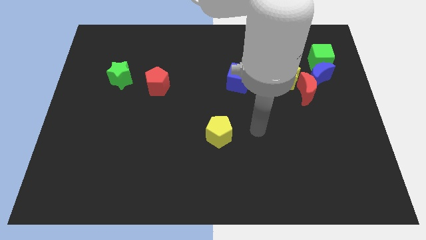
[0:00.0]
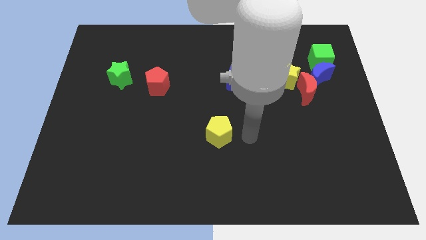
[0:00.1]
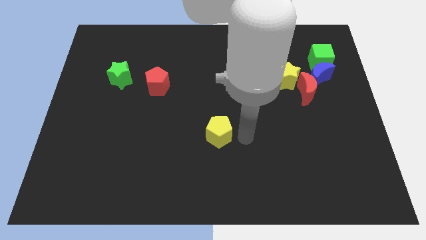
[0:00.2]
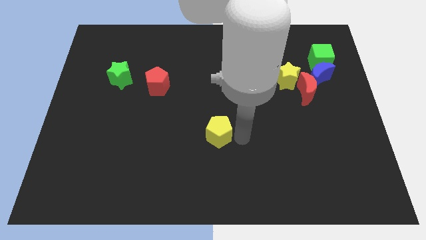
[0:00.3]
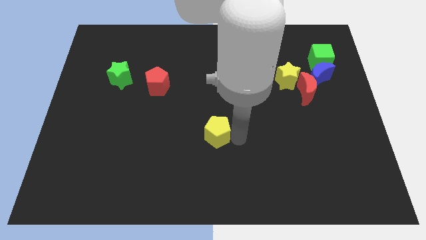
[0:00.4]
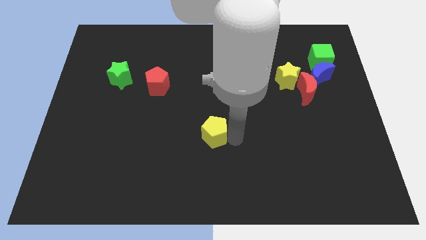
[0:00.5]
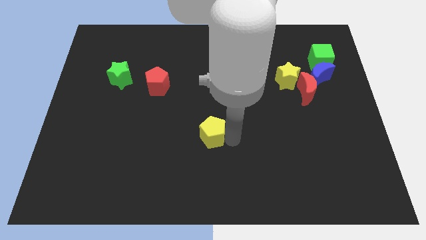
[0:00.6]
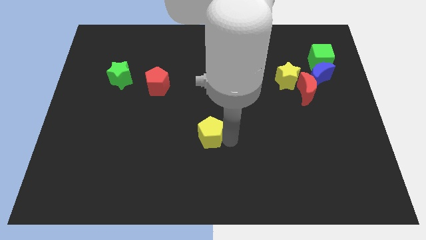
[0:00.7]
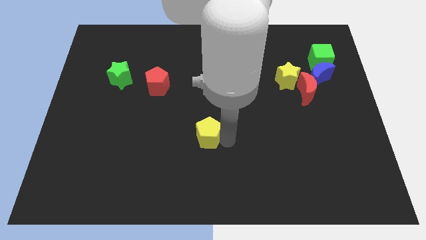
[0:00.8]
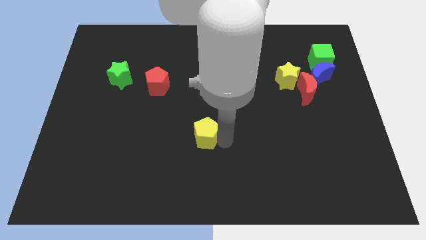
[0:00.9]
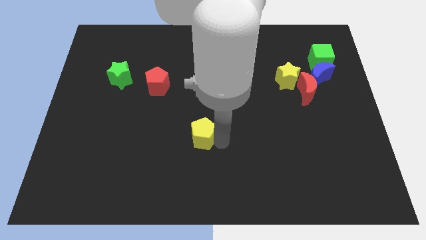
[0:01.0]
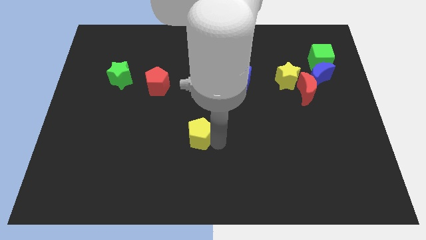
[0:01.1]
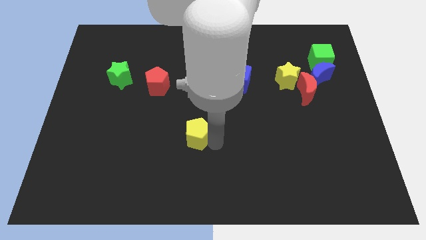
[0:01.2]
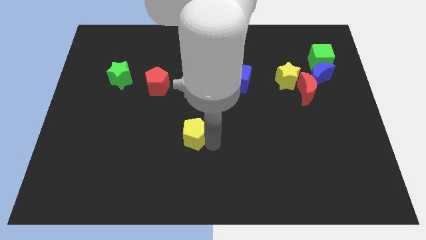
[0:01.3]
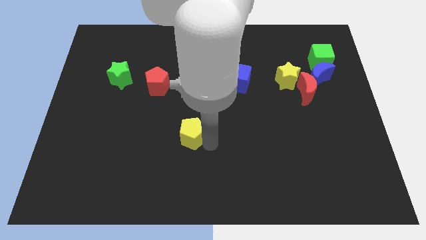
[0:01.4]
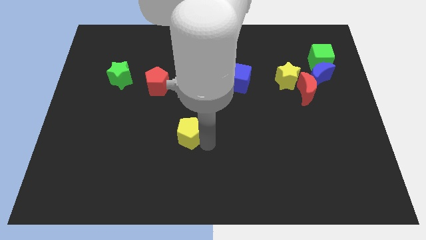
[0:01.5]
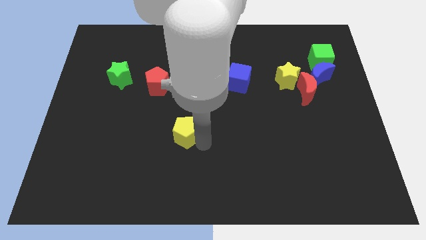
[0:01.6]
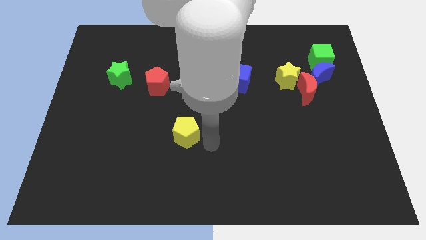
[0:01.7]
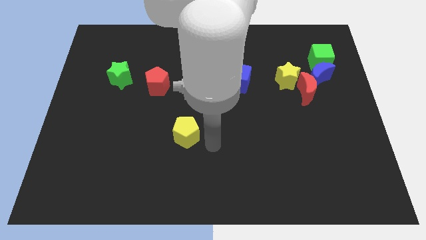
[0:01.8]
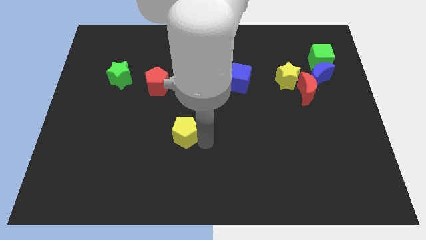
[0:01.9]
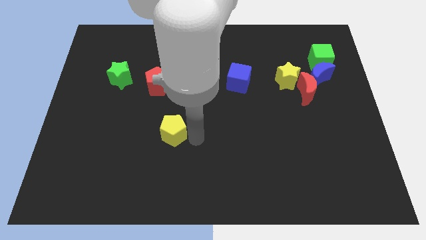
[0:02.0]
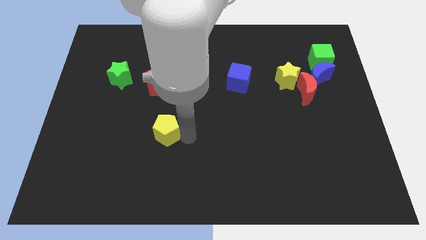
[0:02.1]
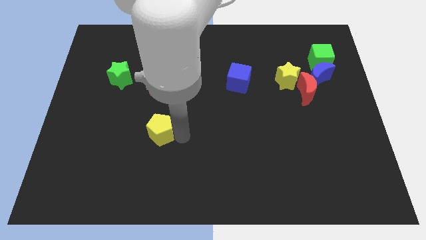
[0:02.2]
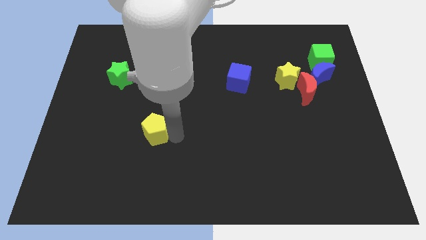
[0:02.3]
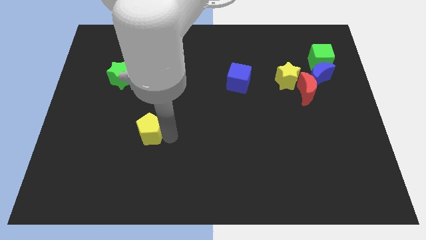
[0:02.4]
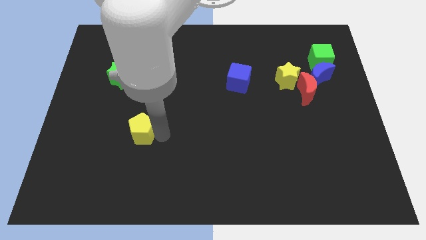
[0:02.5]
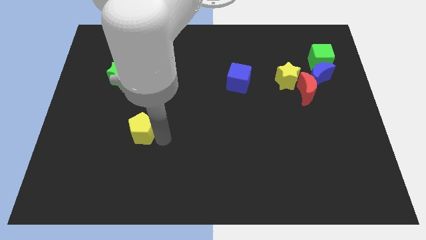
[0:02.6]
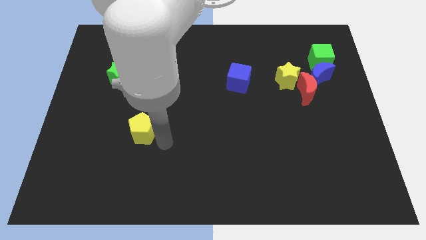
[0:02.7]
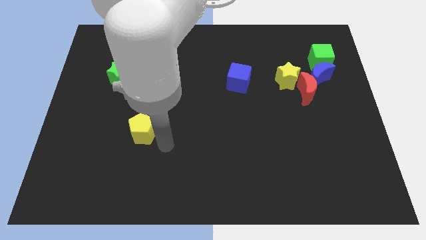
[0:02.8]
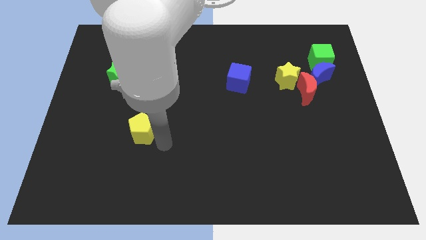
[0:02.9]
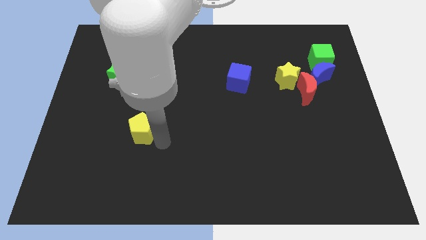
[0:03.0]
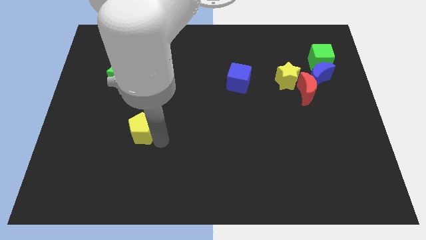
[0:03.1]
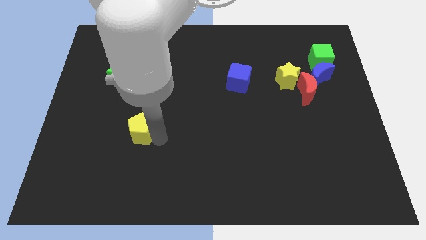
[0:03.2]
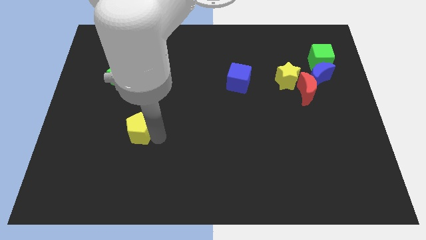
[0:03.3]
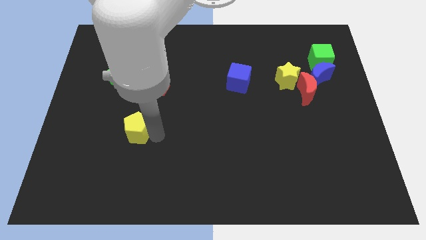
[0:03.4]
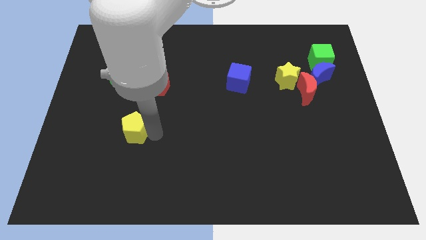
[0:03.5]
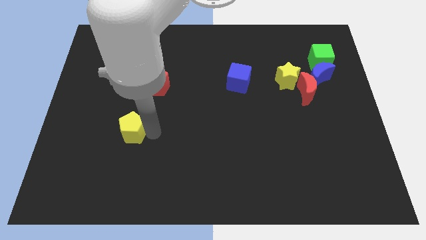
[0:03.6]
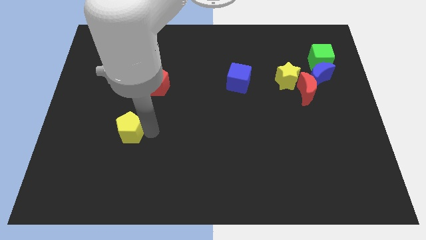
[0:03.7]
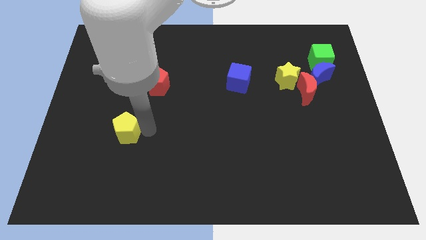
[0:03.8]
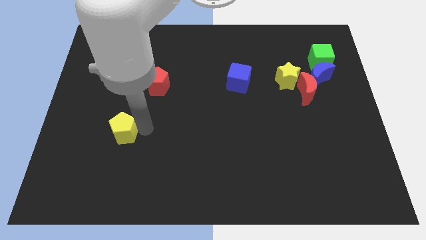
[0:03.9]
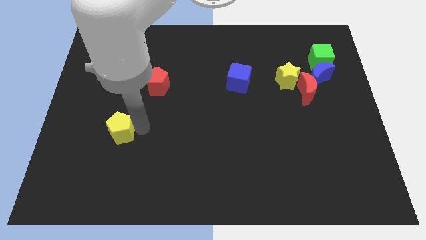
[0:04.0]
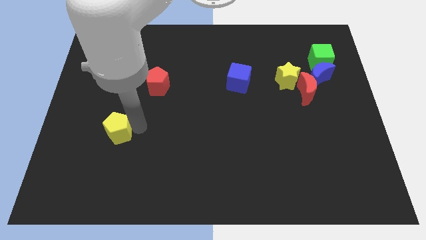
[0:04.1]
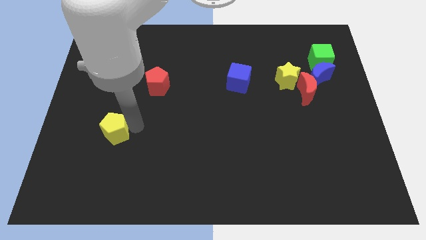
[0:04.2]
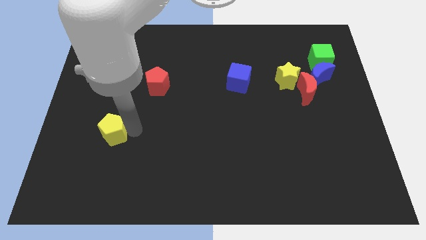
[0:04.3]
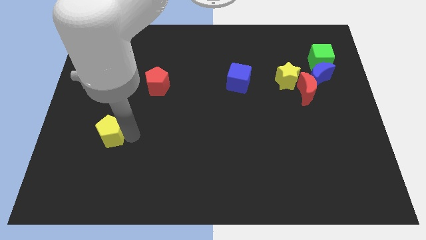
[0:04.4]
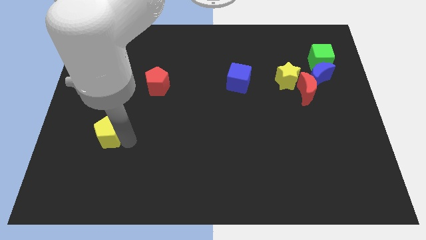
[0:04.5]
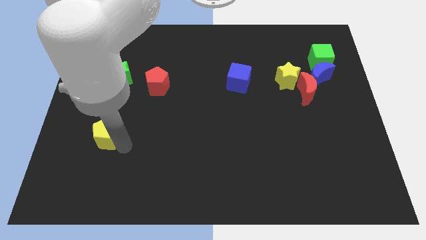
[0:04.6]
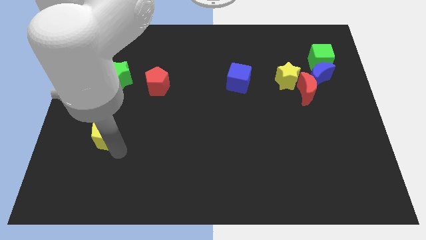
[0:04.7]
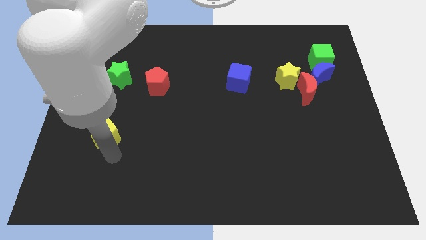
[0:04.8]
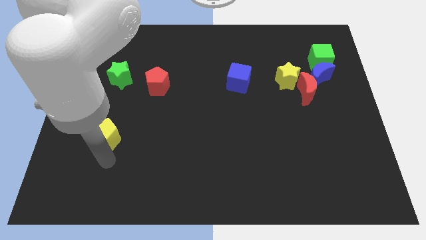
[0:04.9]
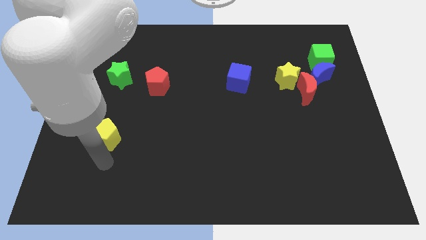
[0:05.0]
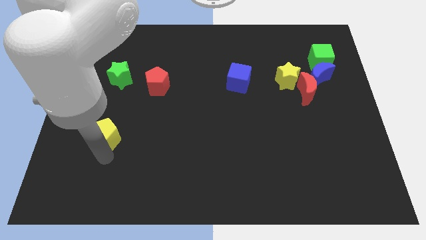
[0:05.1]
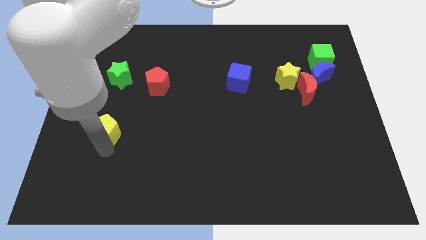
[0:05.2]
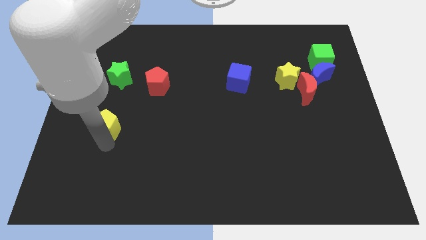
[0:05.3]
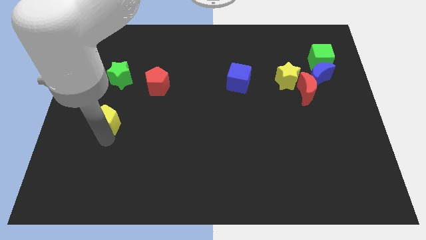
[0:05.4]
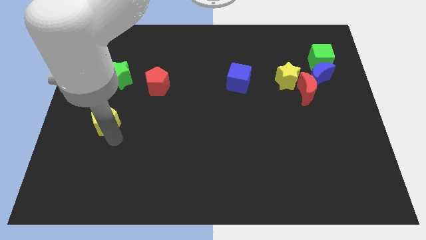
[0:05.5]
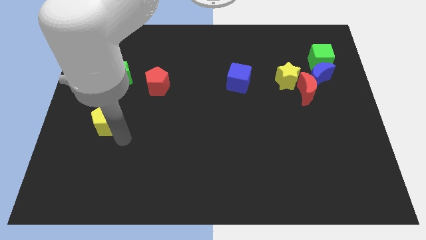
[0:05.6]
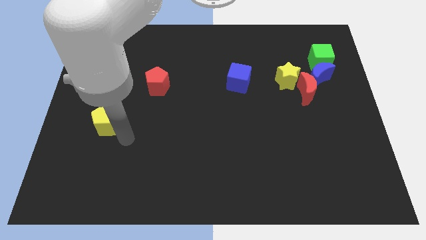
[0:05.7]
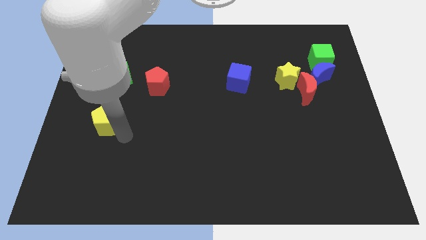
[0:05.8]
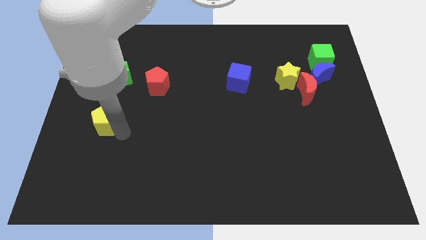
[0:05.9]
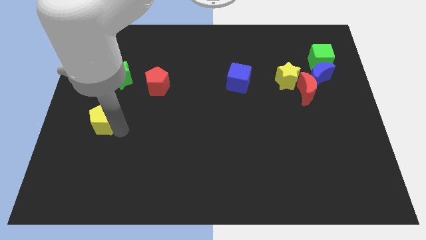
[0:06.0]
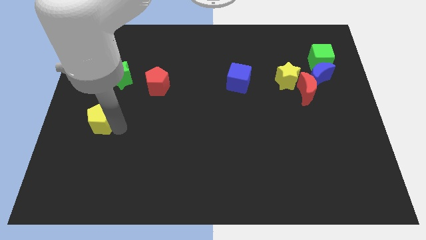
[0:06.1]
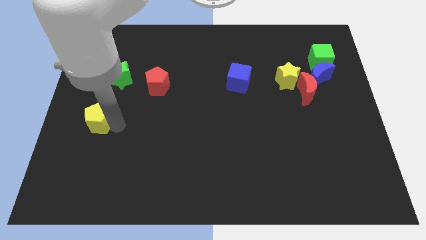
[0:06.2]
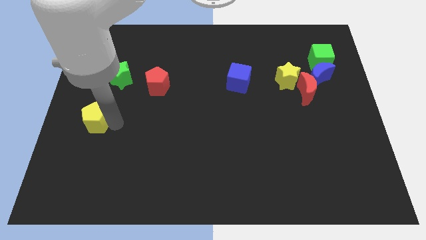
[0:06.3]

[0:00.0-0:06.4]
put the yellow pentagon to the center left

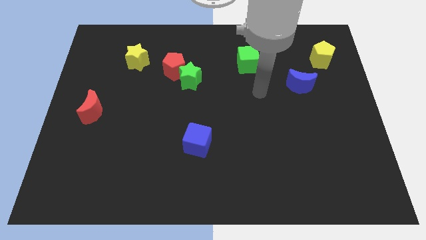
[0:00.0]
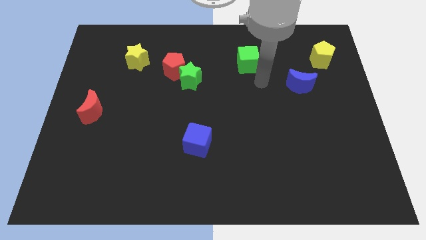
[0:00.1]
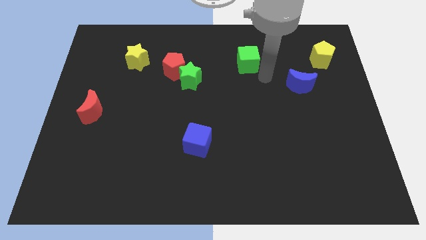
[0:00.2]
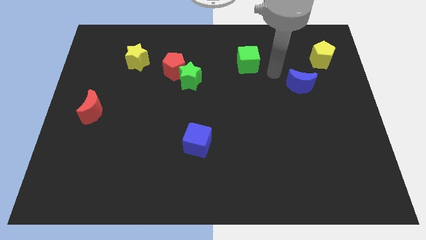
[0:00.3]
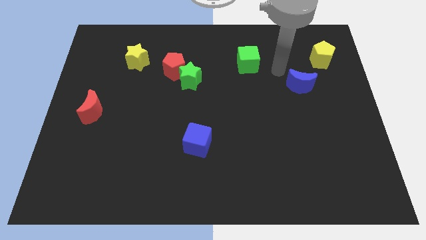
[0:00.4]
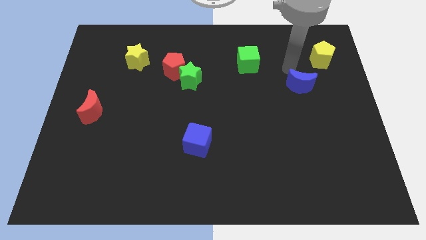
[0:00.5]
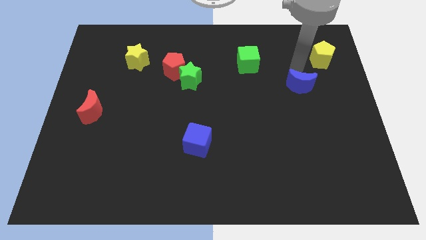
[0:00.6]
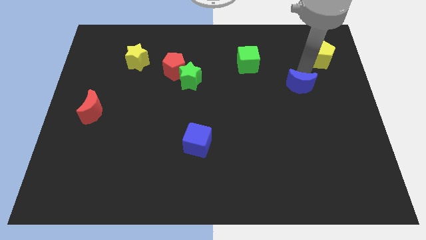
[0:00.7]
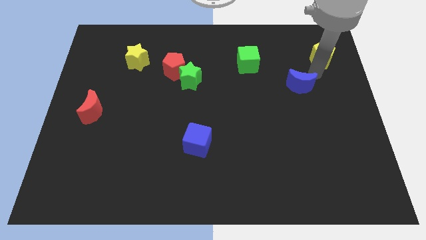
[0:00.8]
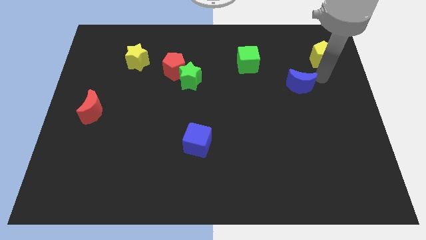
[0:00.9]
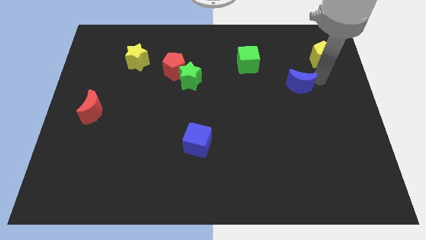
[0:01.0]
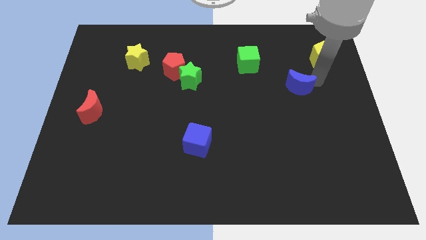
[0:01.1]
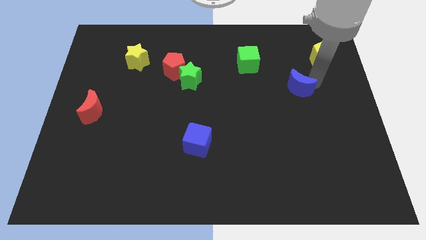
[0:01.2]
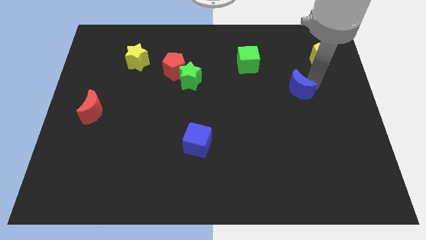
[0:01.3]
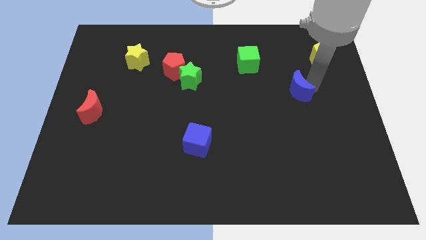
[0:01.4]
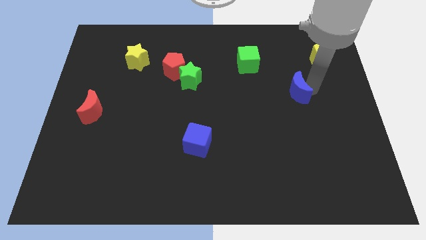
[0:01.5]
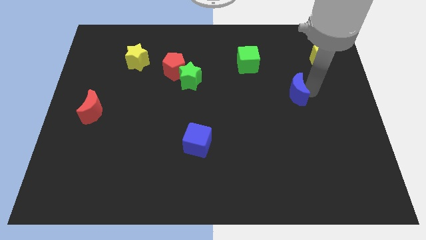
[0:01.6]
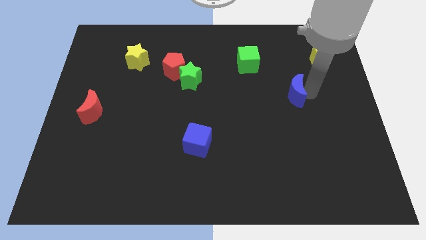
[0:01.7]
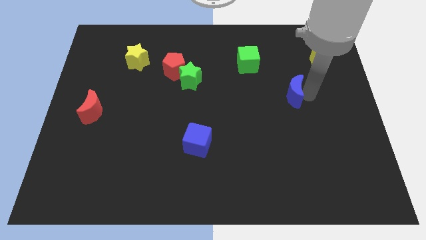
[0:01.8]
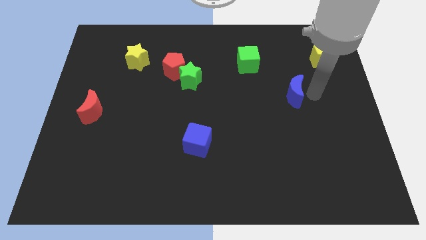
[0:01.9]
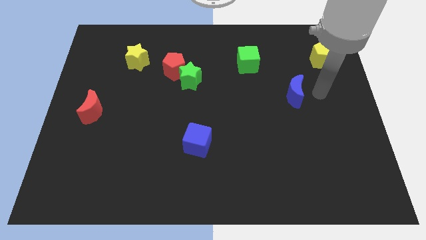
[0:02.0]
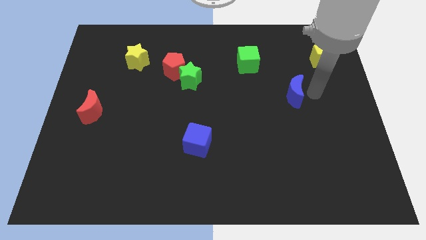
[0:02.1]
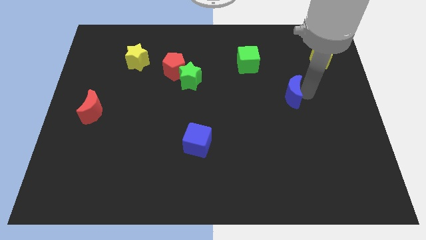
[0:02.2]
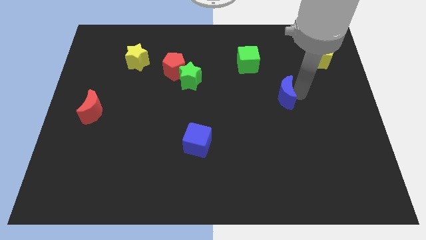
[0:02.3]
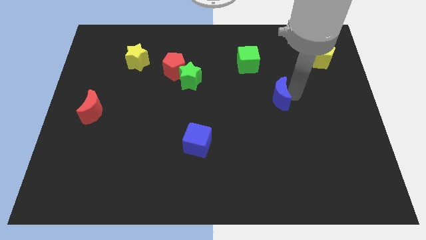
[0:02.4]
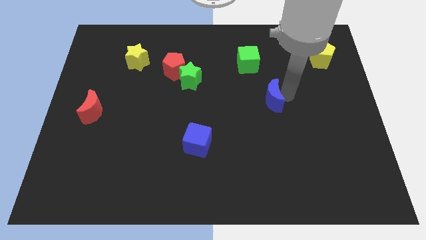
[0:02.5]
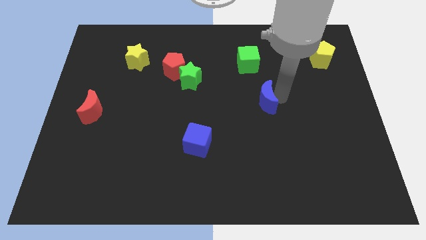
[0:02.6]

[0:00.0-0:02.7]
put the blue moon to the middle of the board
